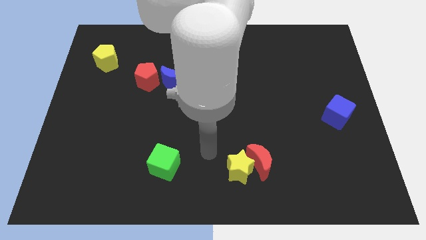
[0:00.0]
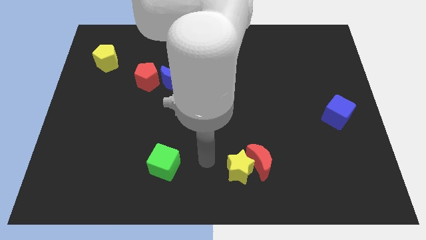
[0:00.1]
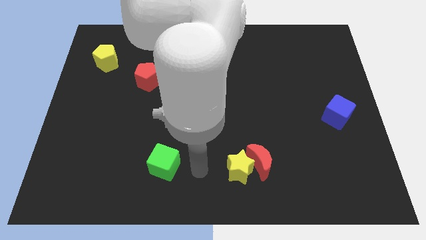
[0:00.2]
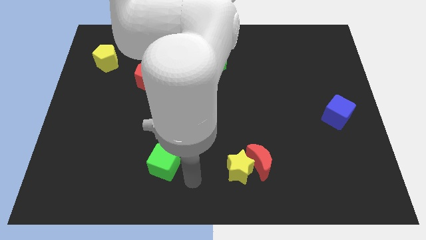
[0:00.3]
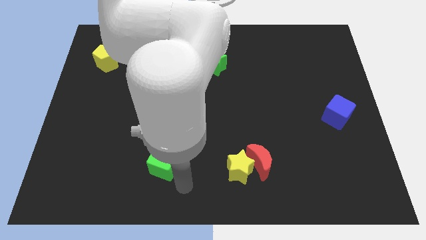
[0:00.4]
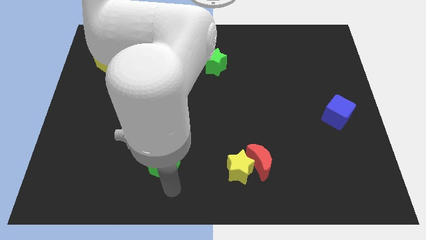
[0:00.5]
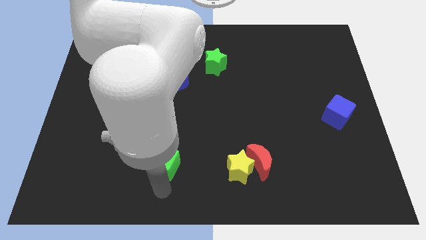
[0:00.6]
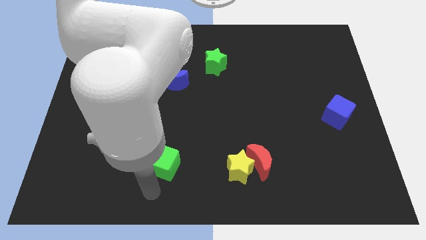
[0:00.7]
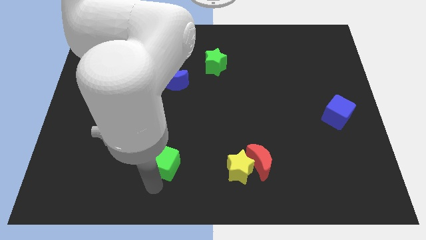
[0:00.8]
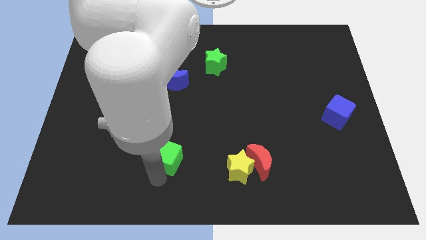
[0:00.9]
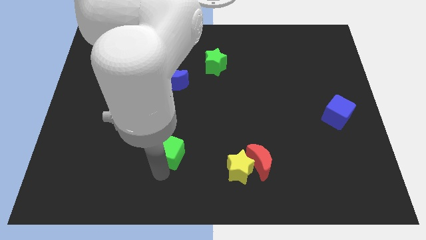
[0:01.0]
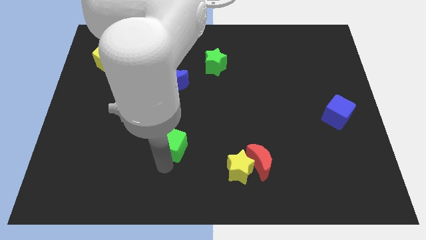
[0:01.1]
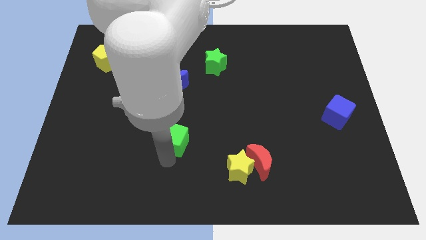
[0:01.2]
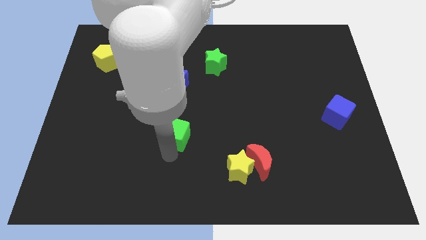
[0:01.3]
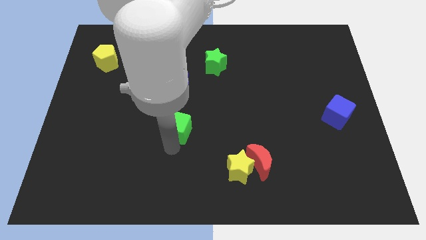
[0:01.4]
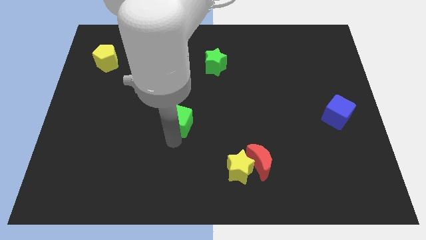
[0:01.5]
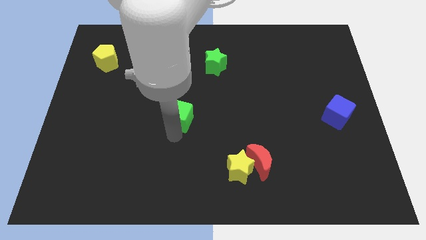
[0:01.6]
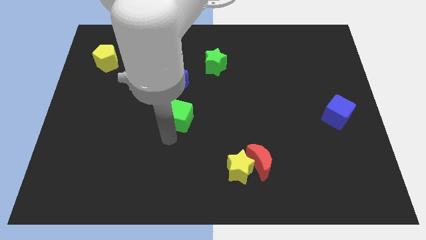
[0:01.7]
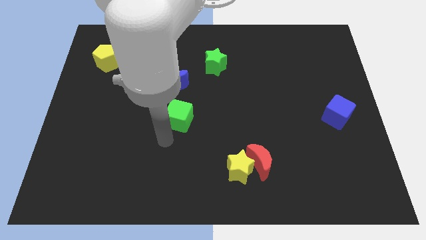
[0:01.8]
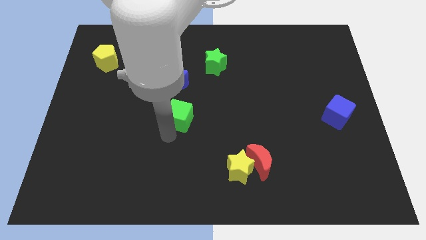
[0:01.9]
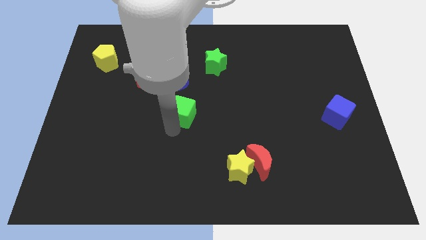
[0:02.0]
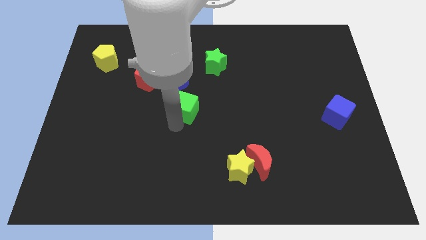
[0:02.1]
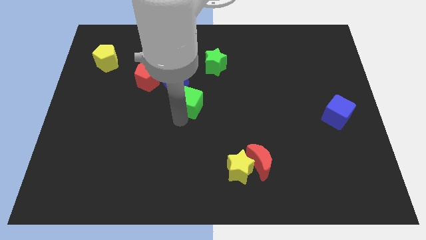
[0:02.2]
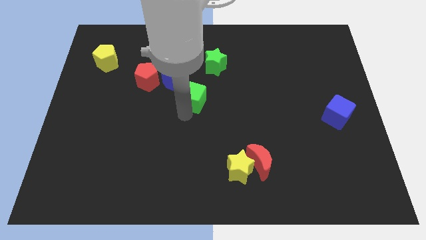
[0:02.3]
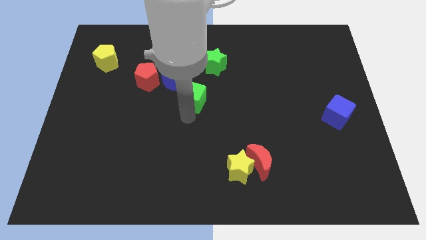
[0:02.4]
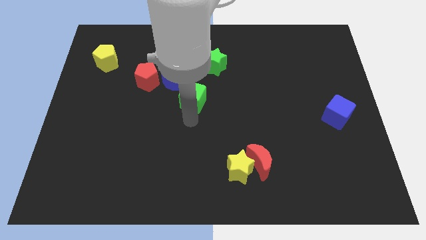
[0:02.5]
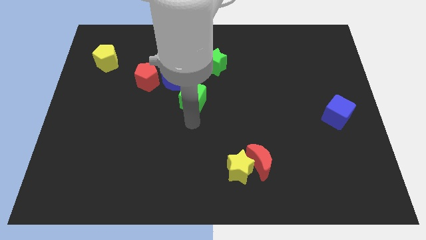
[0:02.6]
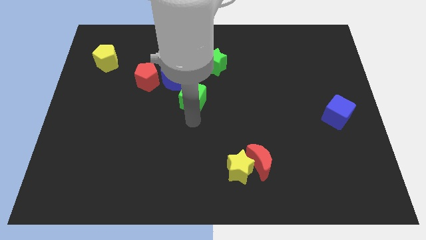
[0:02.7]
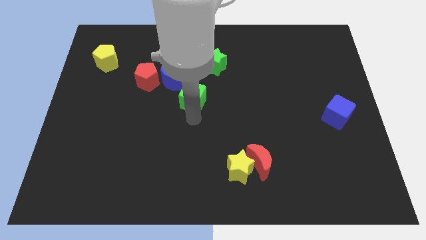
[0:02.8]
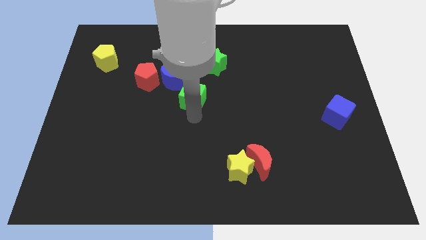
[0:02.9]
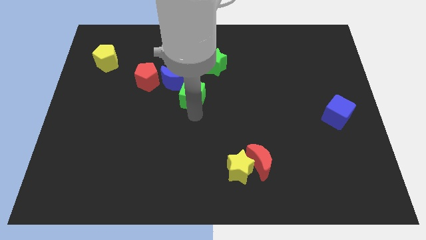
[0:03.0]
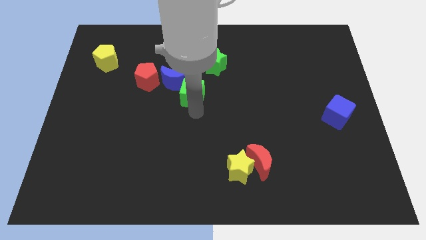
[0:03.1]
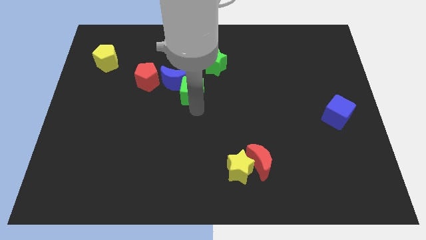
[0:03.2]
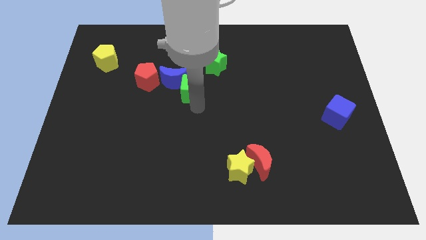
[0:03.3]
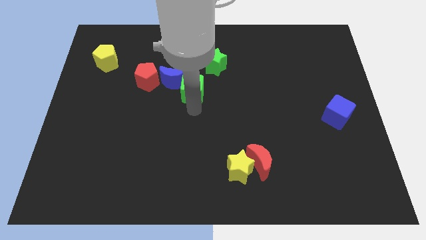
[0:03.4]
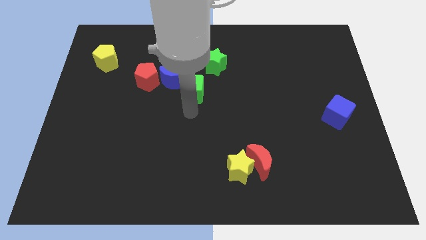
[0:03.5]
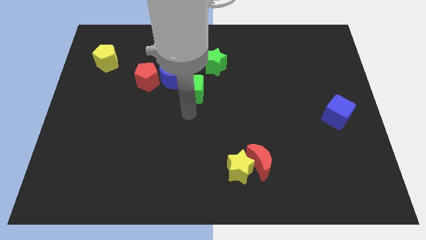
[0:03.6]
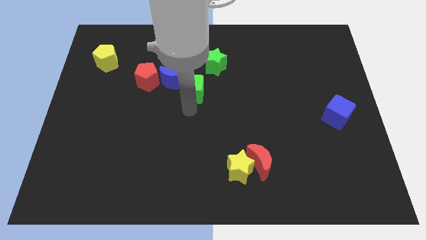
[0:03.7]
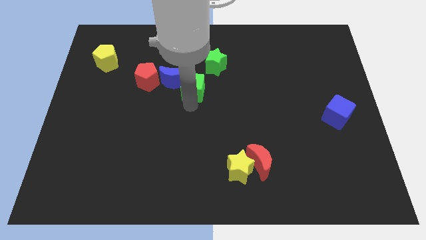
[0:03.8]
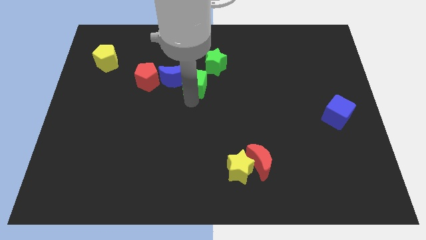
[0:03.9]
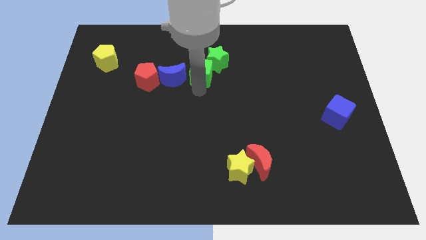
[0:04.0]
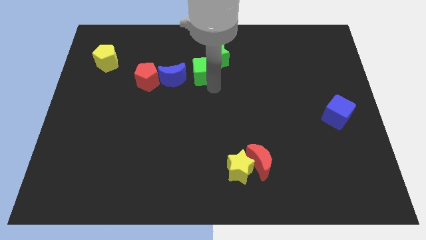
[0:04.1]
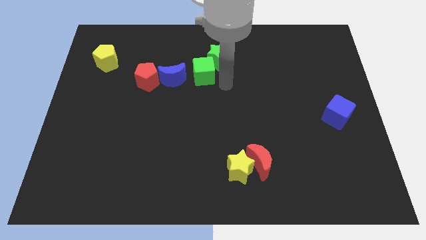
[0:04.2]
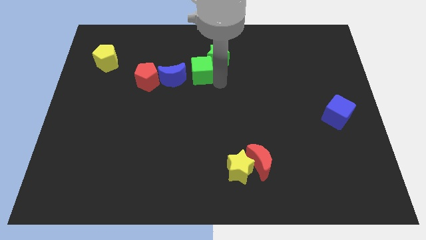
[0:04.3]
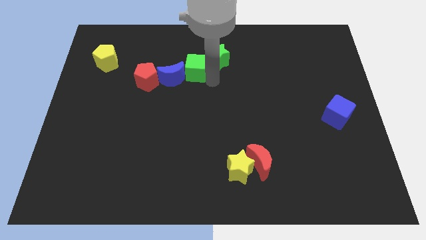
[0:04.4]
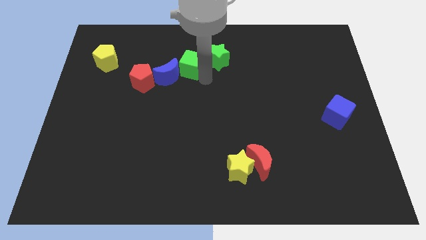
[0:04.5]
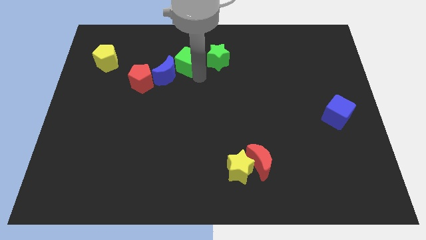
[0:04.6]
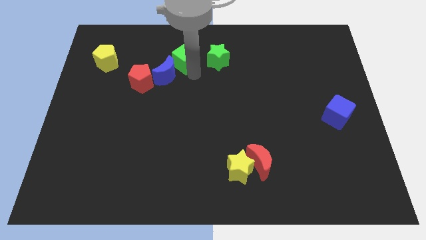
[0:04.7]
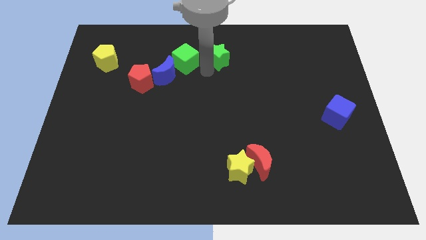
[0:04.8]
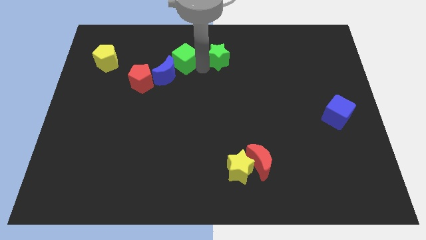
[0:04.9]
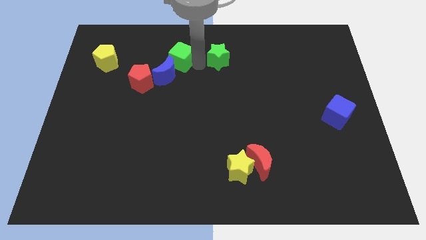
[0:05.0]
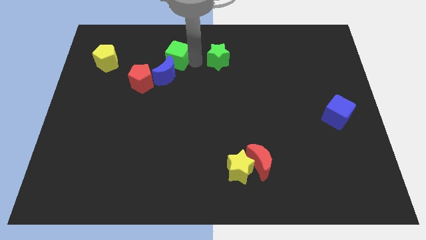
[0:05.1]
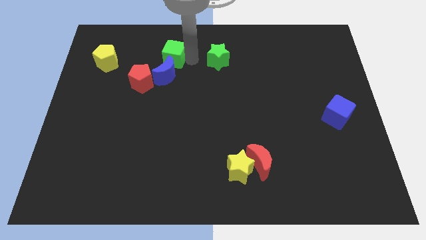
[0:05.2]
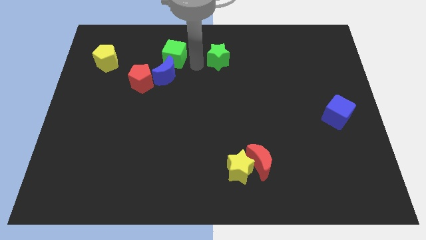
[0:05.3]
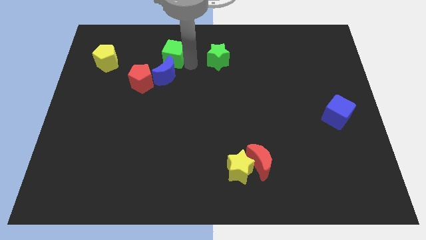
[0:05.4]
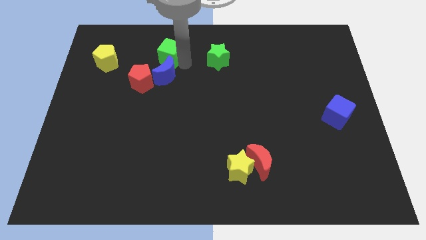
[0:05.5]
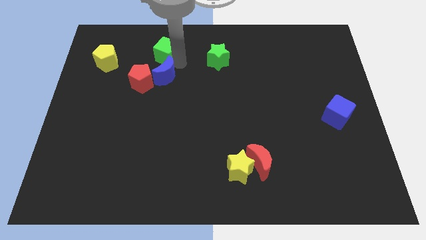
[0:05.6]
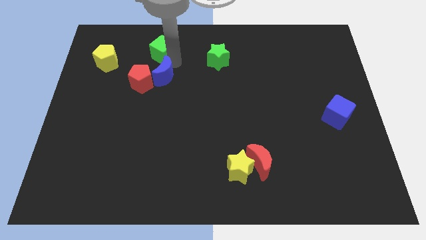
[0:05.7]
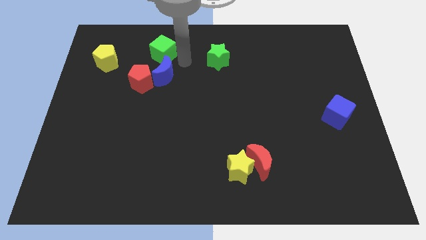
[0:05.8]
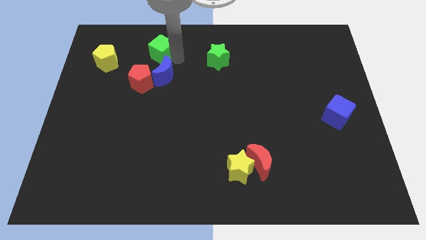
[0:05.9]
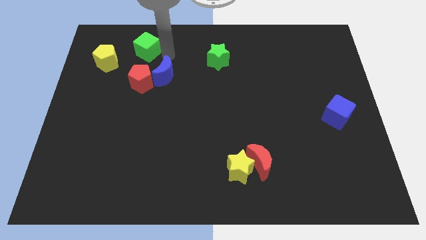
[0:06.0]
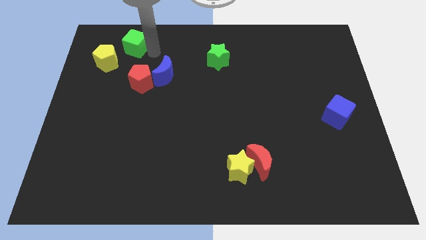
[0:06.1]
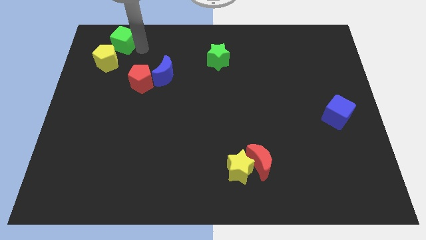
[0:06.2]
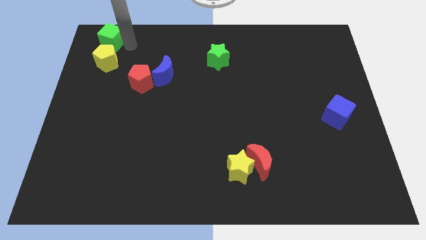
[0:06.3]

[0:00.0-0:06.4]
push the green cube to the top left of the board

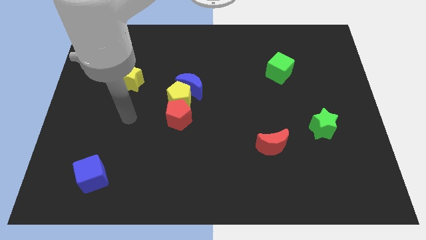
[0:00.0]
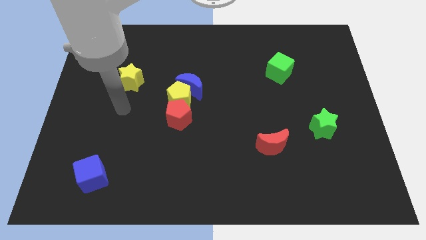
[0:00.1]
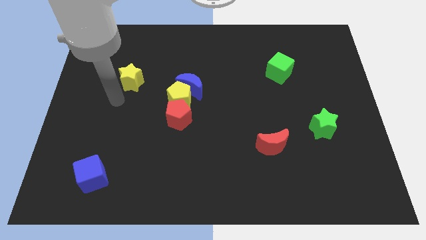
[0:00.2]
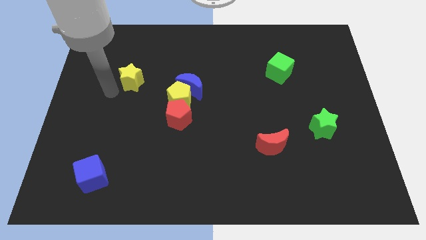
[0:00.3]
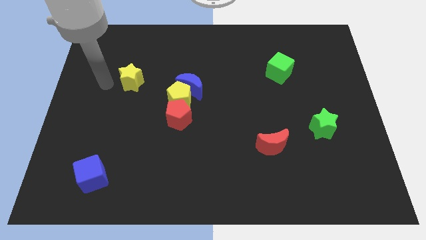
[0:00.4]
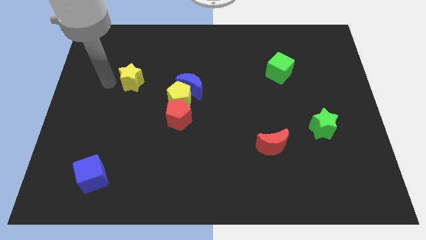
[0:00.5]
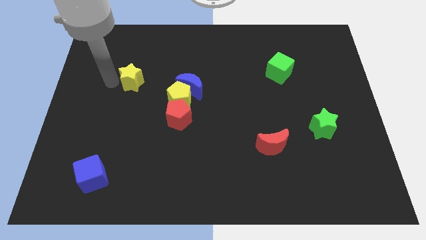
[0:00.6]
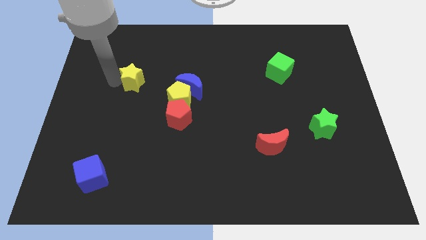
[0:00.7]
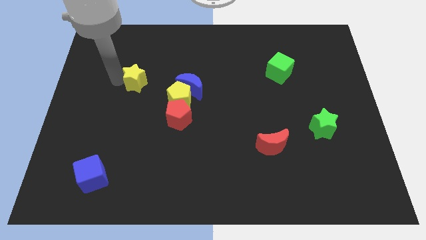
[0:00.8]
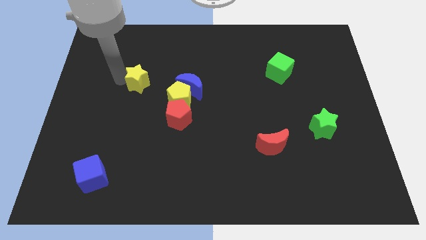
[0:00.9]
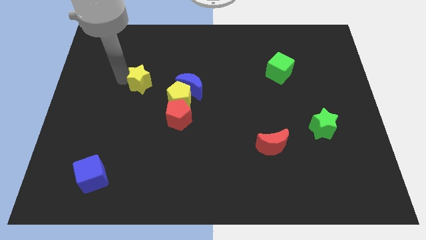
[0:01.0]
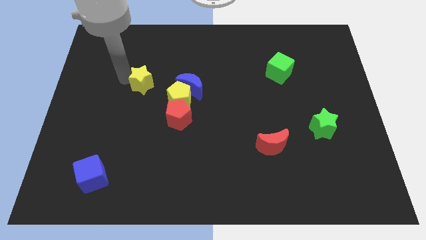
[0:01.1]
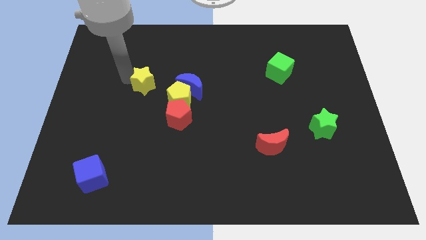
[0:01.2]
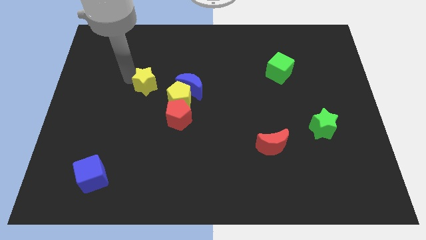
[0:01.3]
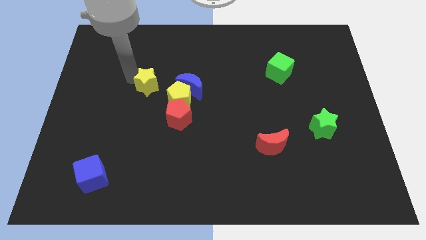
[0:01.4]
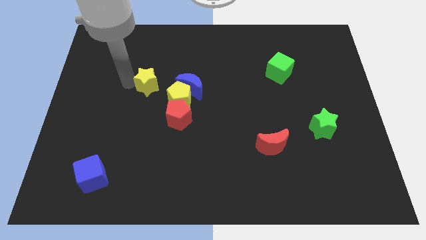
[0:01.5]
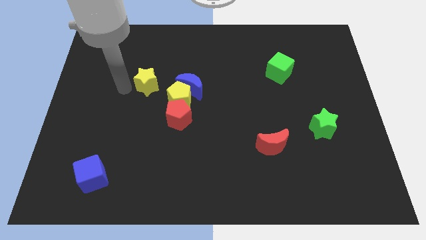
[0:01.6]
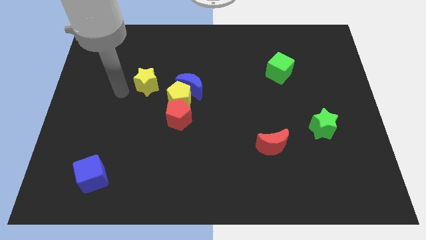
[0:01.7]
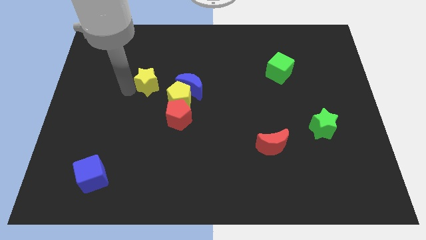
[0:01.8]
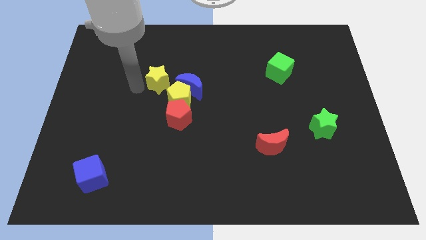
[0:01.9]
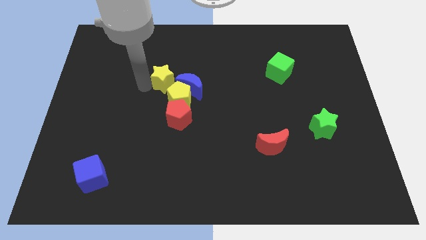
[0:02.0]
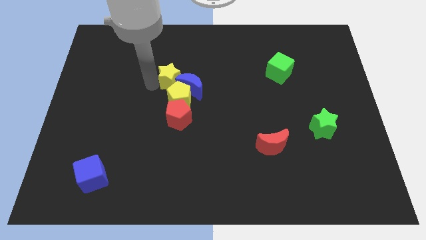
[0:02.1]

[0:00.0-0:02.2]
slide the yellow star to the center of the board
